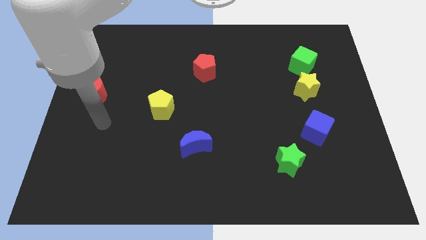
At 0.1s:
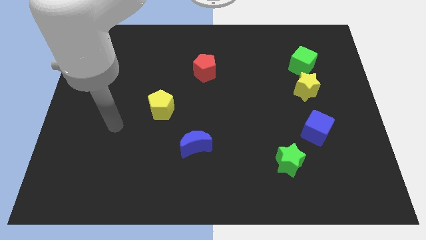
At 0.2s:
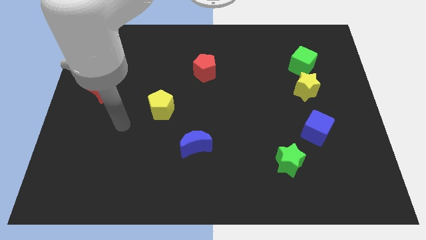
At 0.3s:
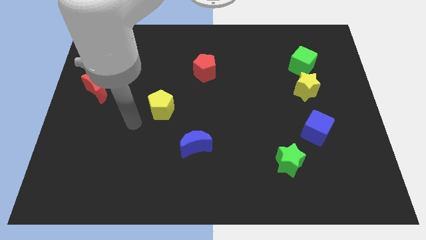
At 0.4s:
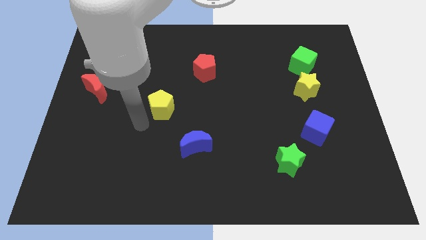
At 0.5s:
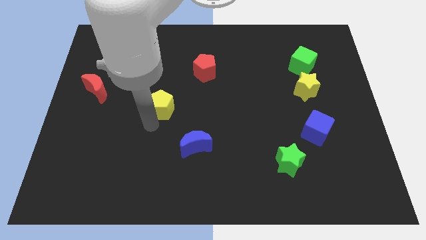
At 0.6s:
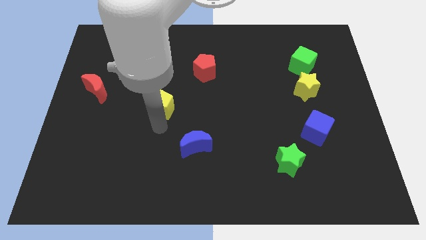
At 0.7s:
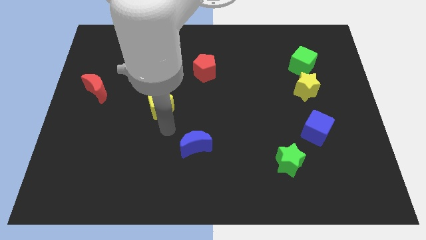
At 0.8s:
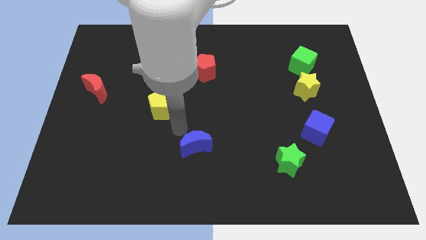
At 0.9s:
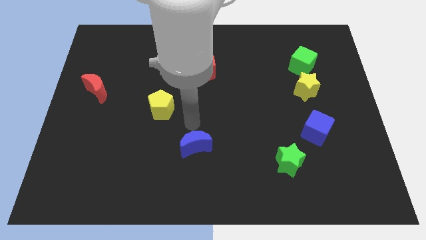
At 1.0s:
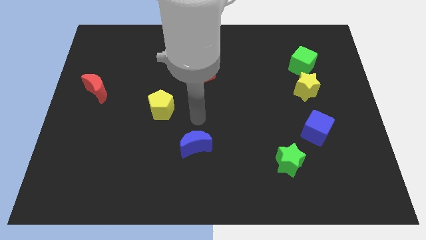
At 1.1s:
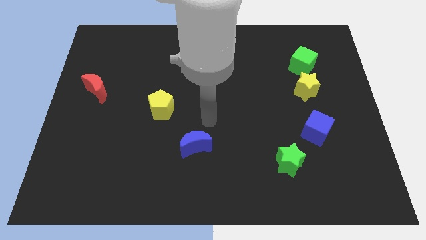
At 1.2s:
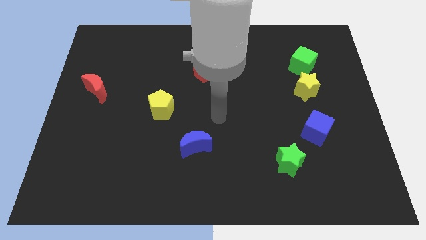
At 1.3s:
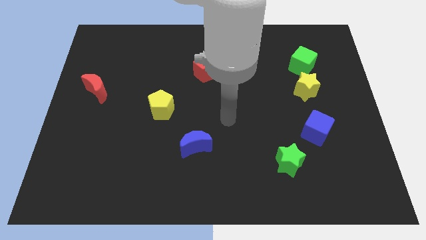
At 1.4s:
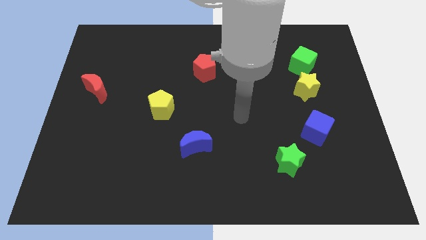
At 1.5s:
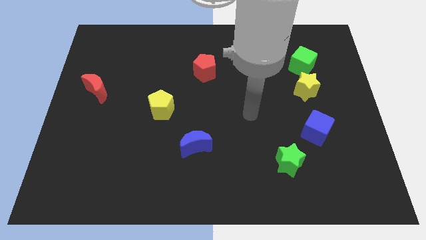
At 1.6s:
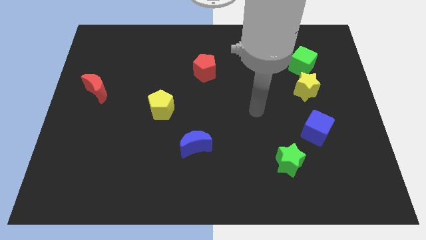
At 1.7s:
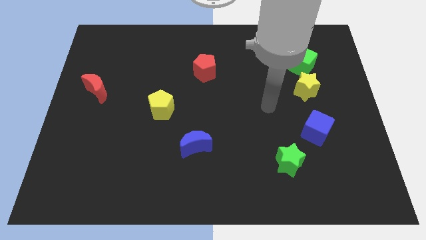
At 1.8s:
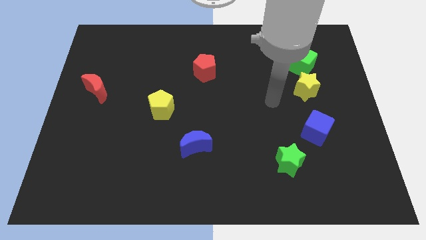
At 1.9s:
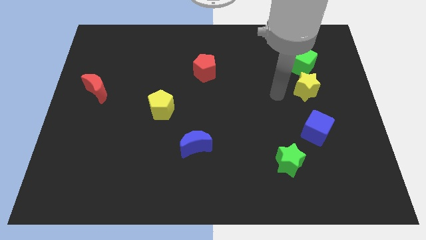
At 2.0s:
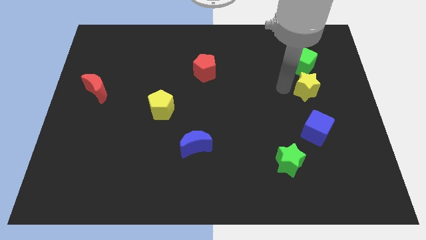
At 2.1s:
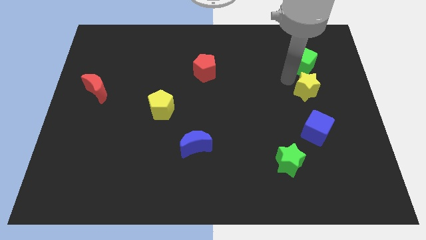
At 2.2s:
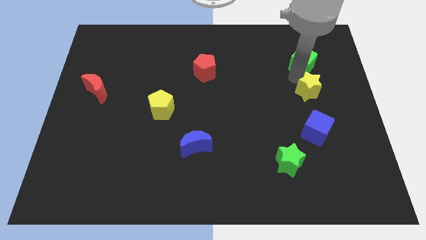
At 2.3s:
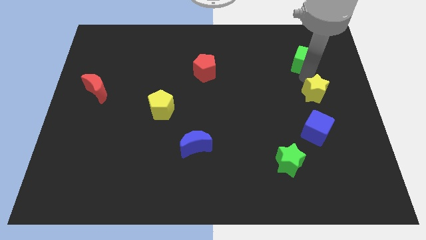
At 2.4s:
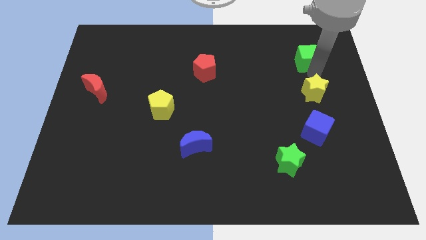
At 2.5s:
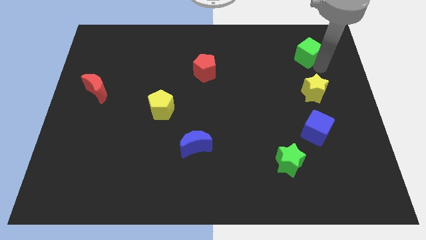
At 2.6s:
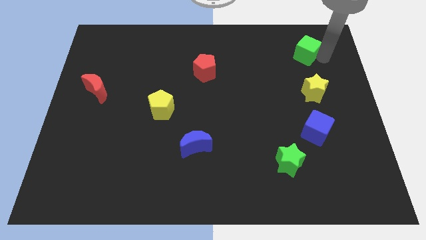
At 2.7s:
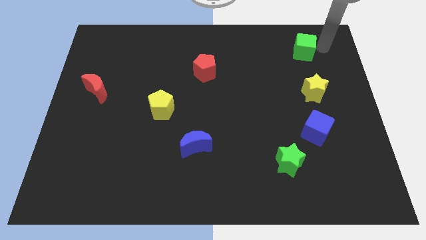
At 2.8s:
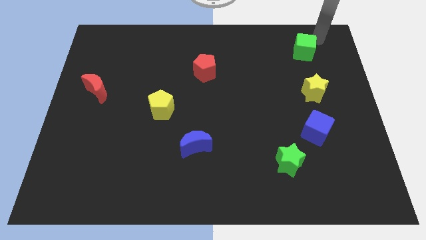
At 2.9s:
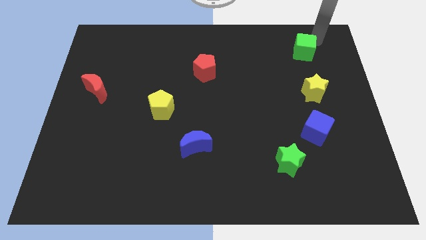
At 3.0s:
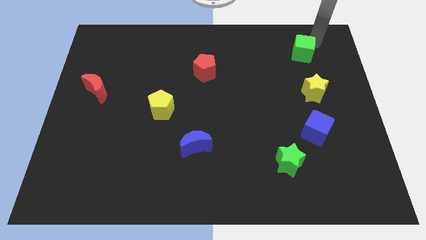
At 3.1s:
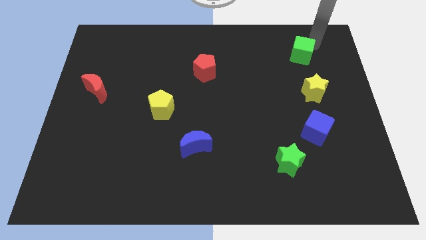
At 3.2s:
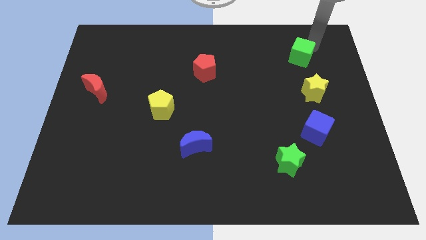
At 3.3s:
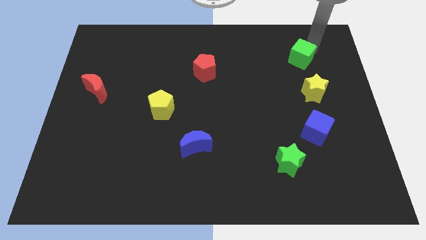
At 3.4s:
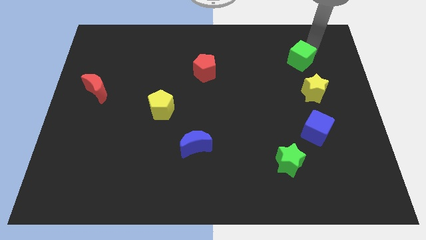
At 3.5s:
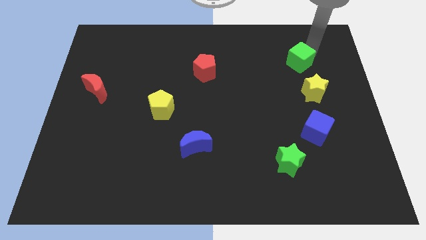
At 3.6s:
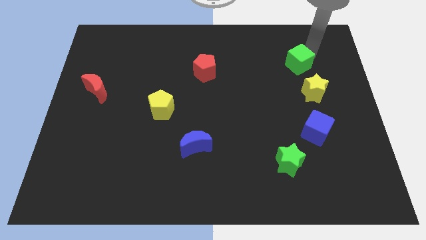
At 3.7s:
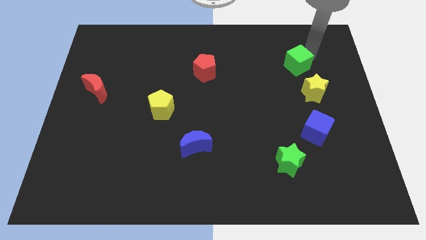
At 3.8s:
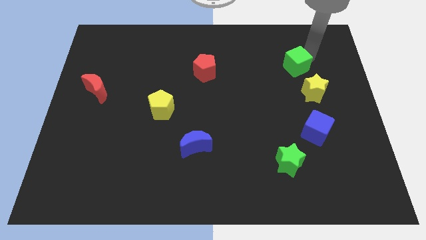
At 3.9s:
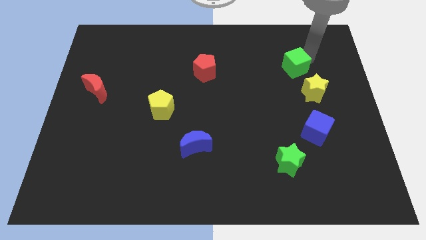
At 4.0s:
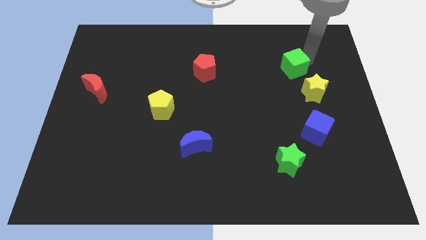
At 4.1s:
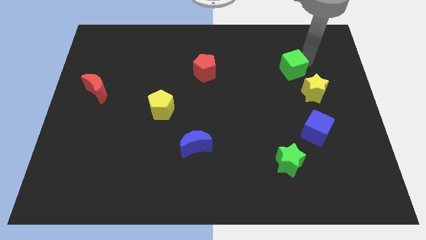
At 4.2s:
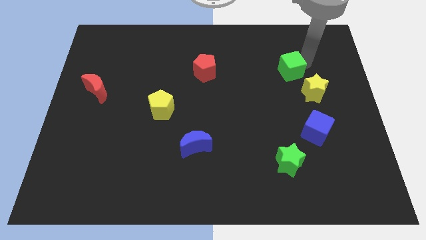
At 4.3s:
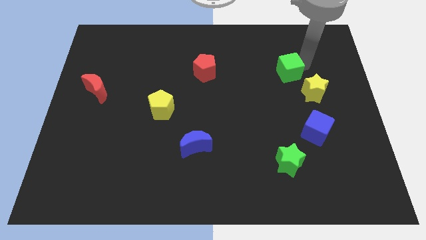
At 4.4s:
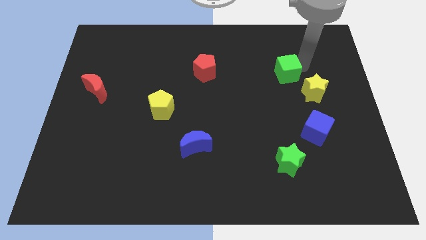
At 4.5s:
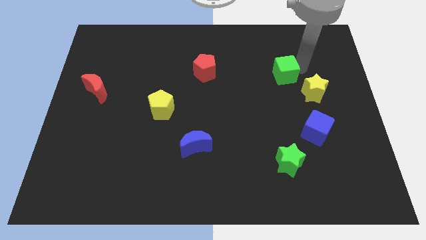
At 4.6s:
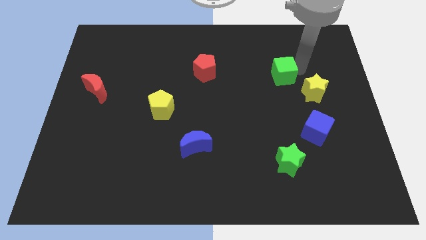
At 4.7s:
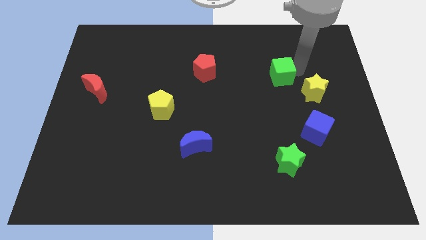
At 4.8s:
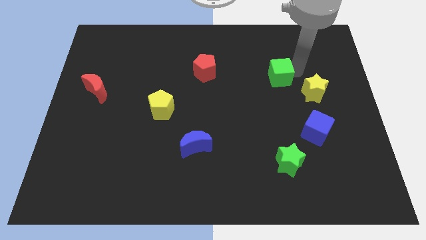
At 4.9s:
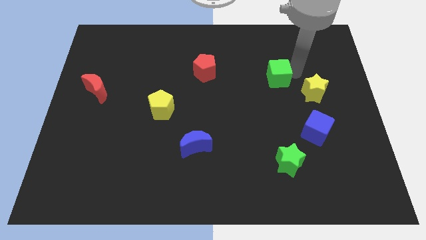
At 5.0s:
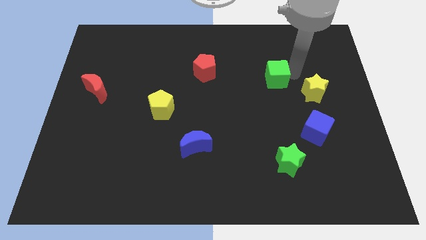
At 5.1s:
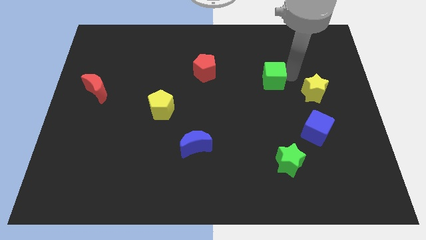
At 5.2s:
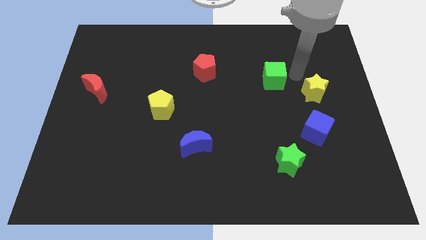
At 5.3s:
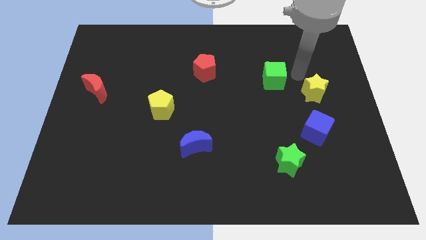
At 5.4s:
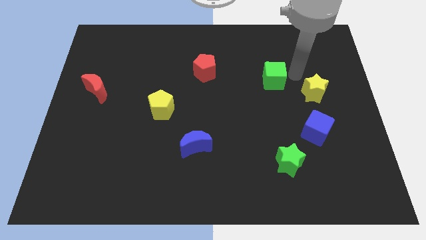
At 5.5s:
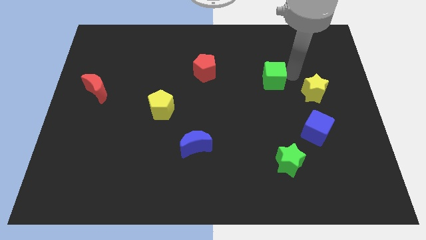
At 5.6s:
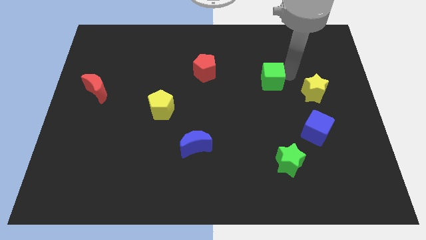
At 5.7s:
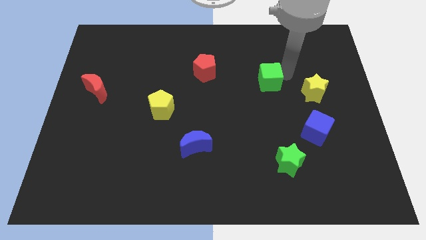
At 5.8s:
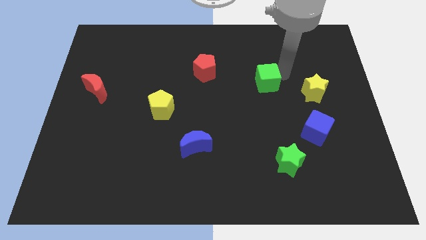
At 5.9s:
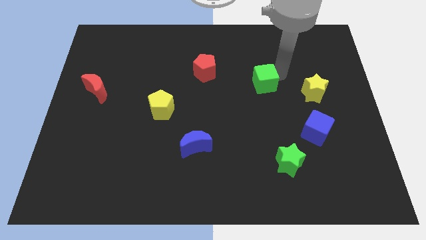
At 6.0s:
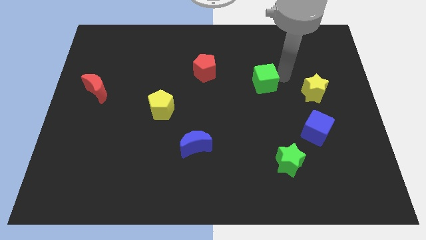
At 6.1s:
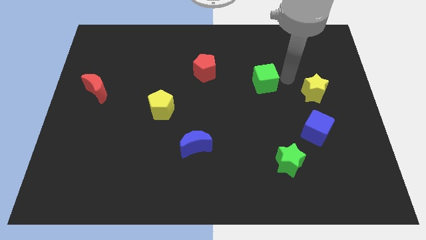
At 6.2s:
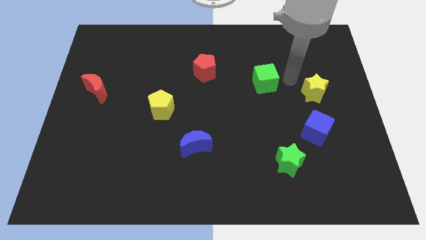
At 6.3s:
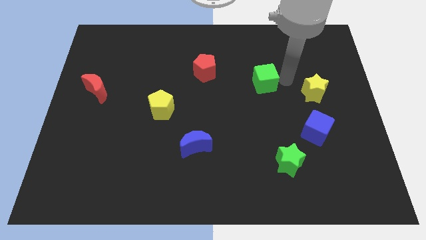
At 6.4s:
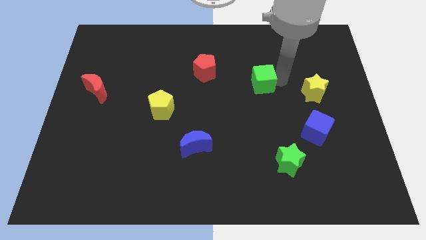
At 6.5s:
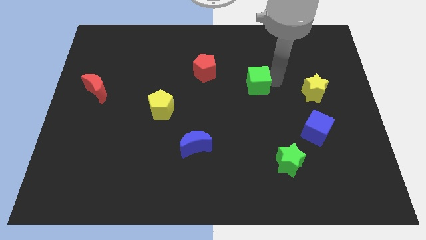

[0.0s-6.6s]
push the green cube to the middle
